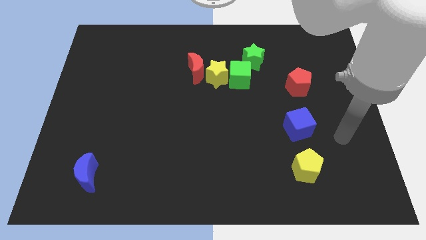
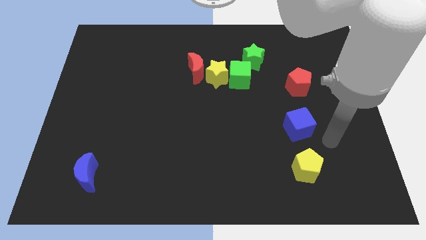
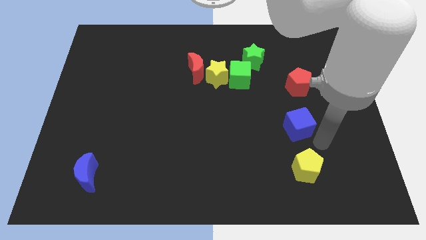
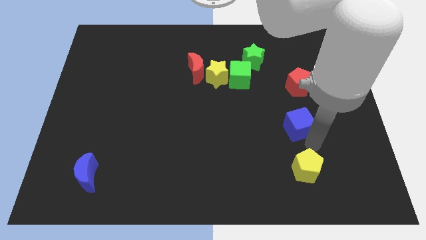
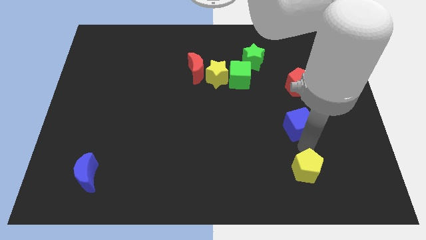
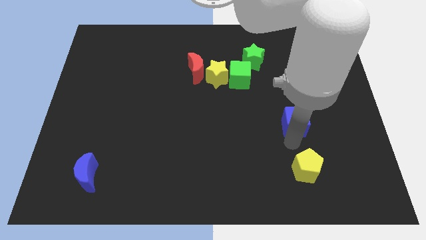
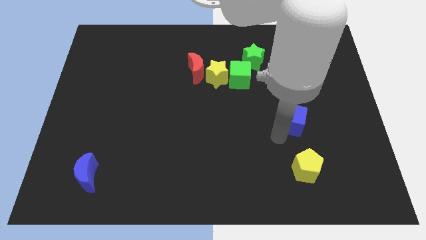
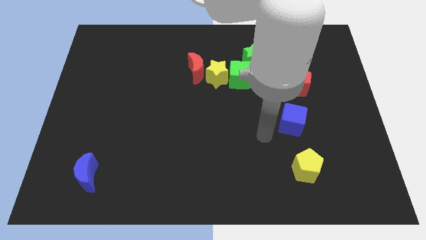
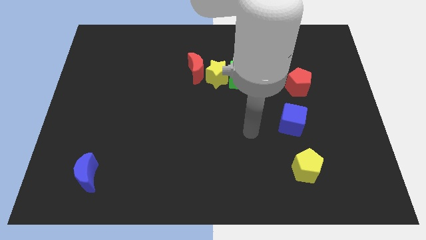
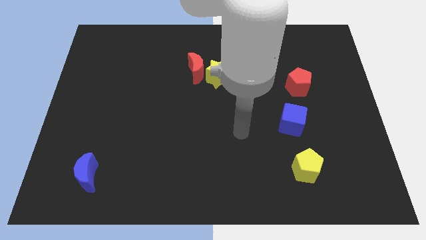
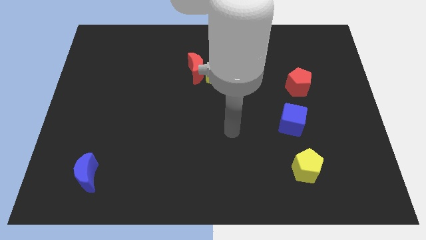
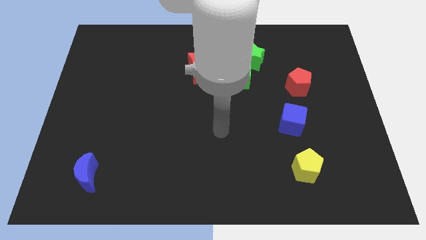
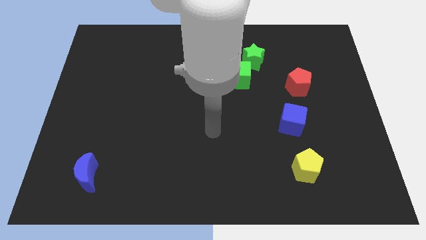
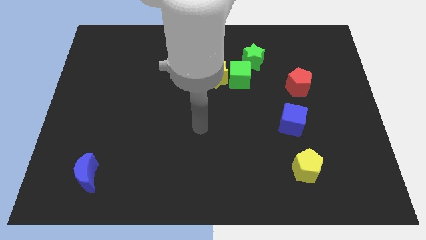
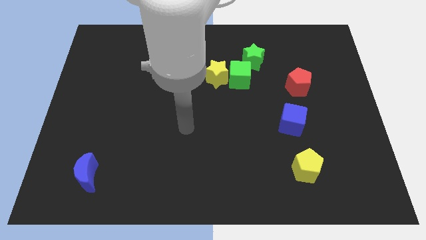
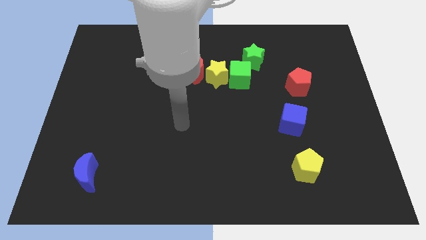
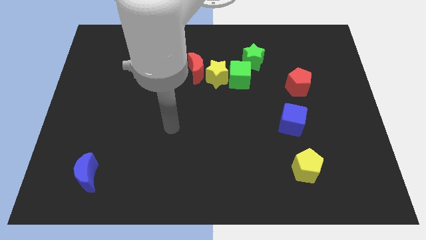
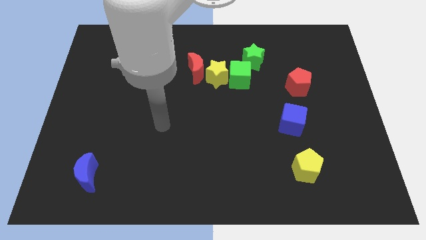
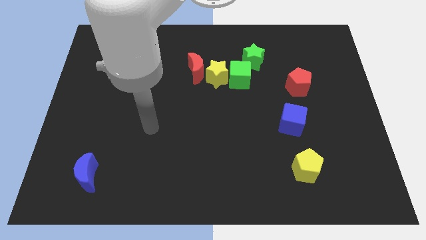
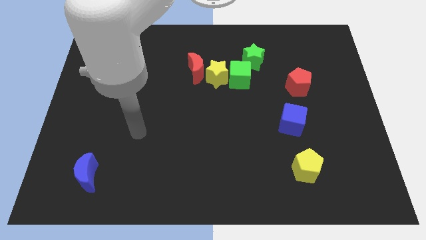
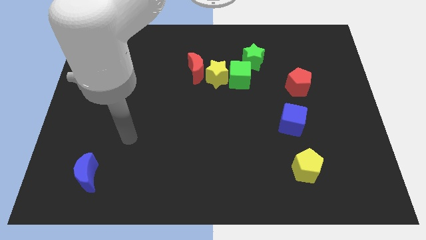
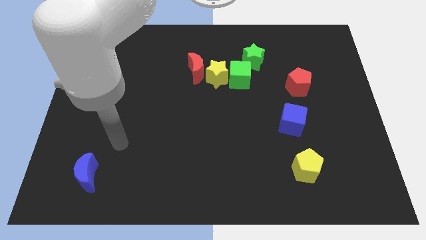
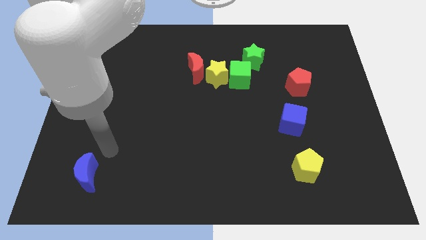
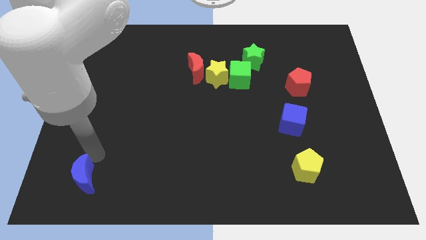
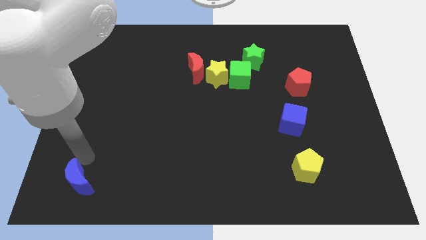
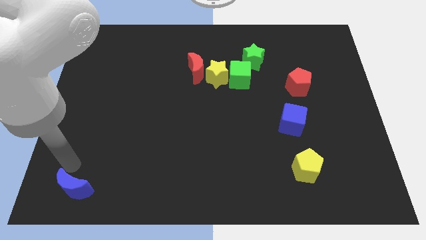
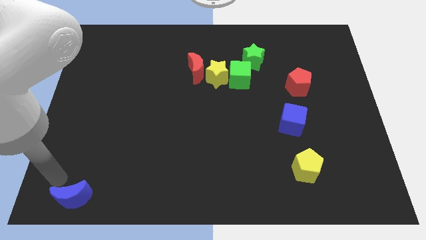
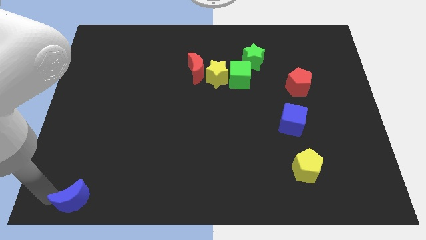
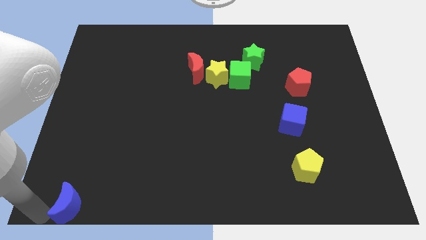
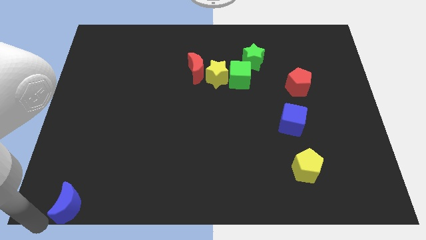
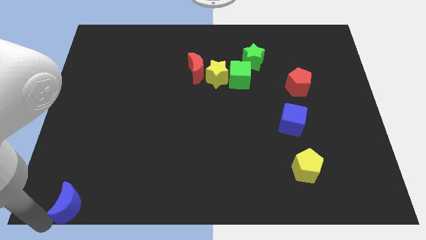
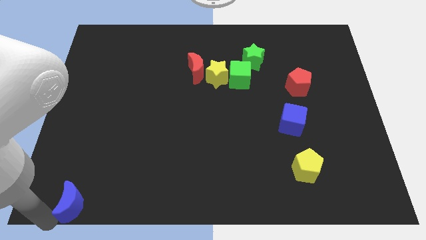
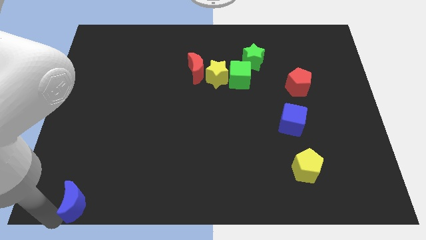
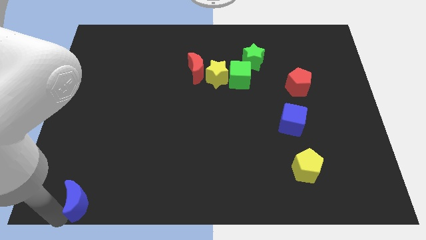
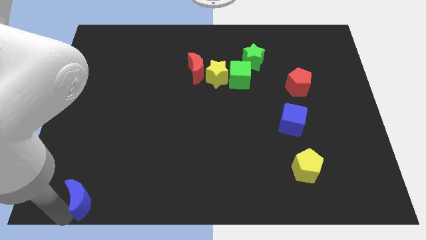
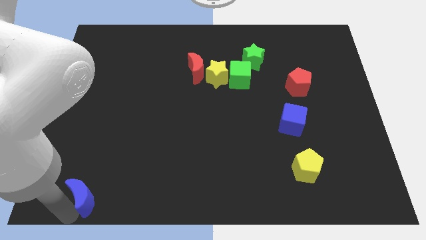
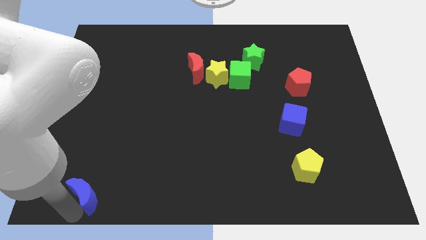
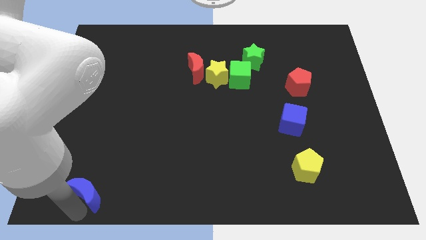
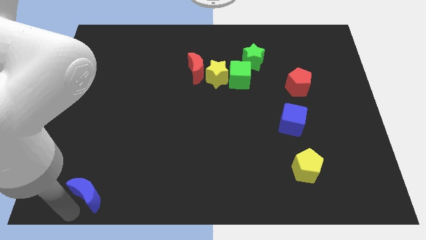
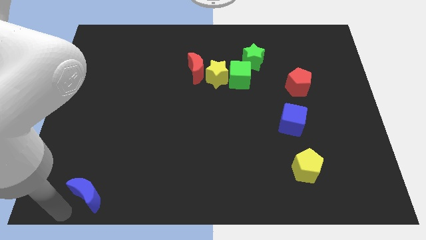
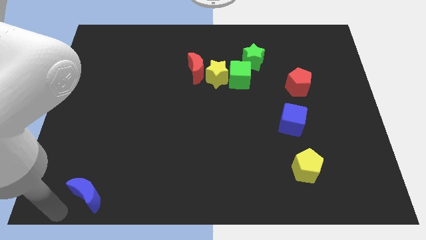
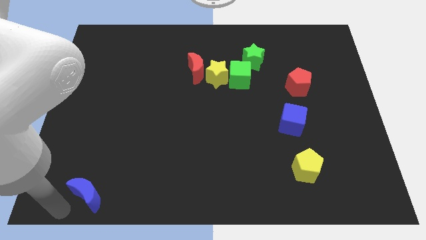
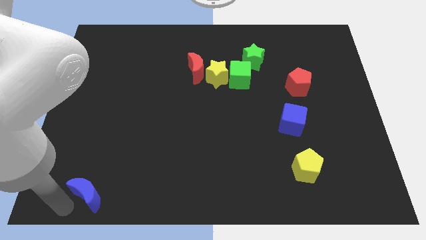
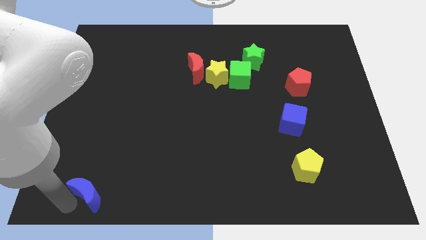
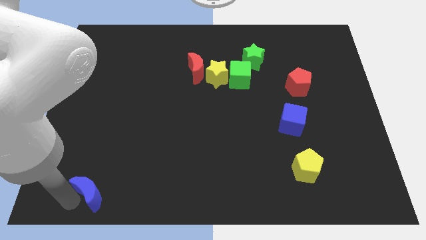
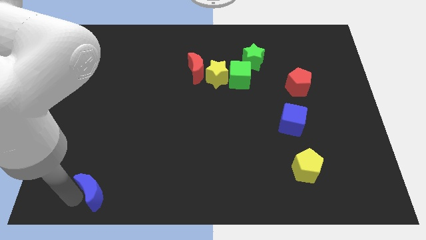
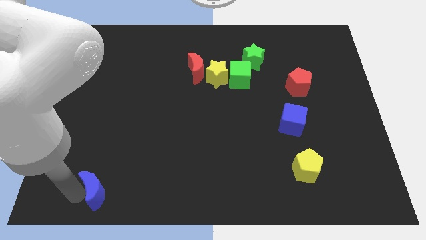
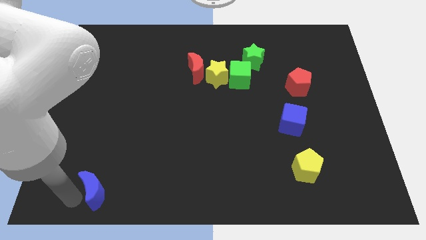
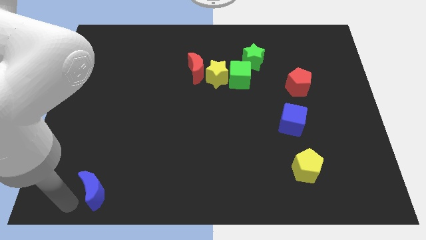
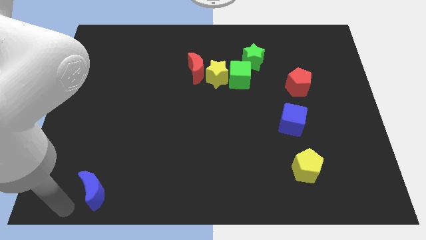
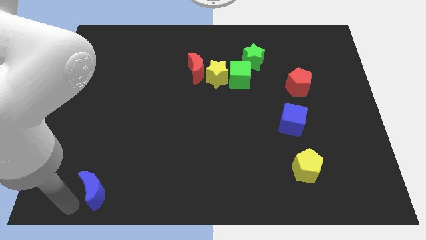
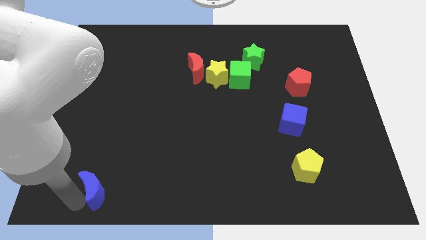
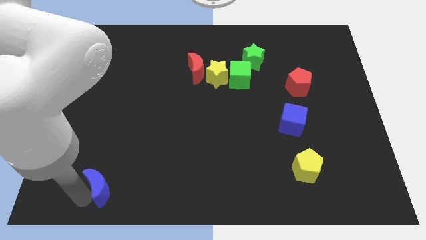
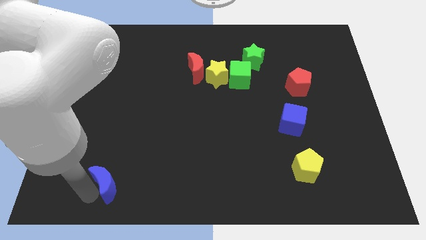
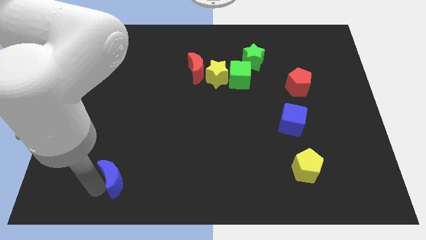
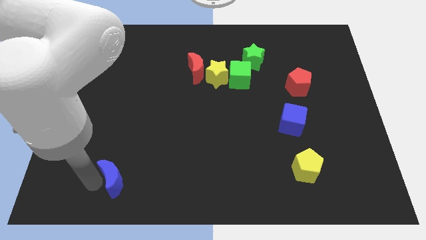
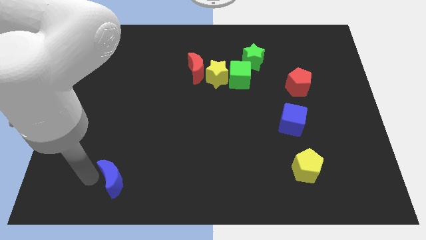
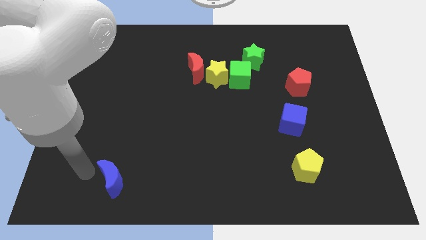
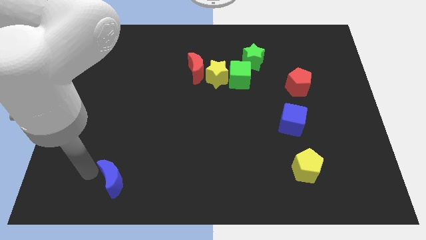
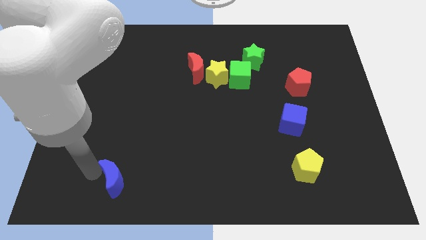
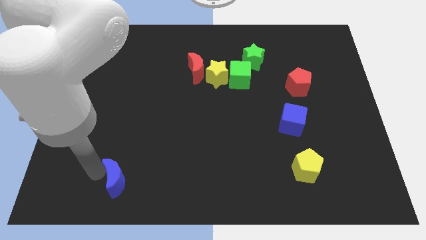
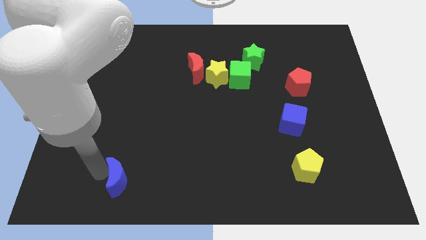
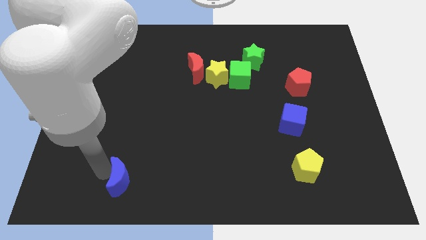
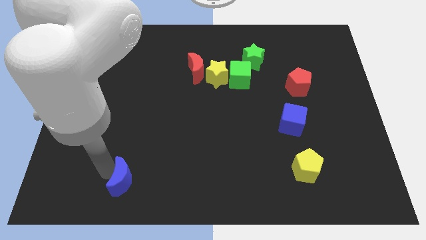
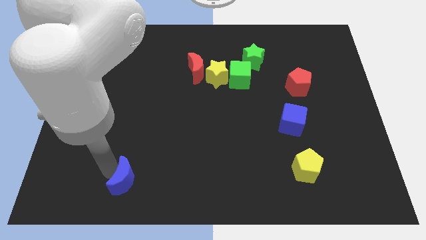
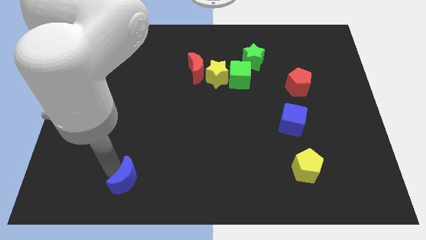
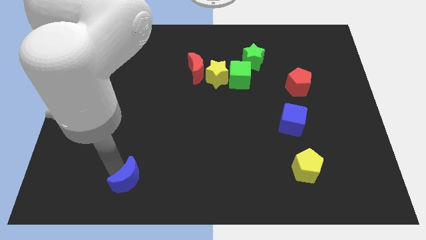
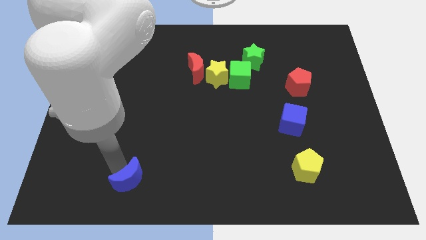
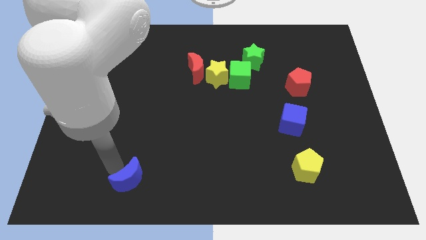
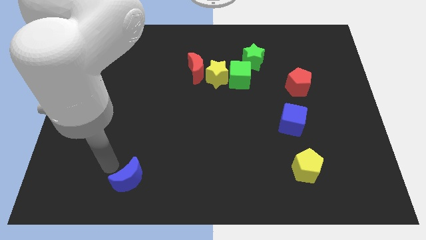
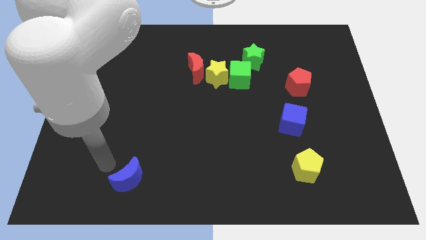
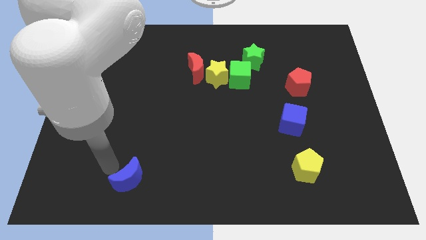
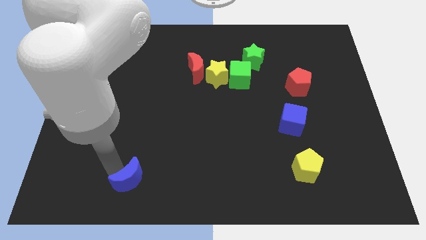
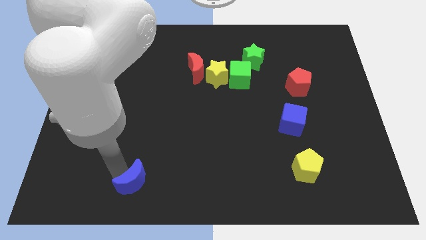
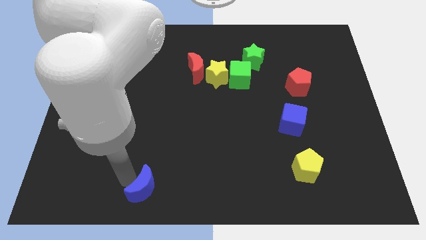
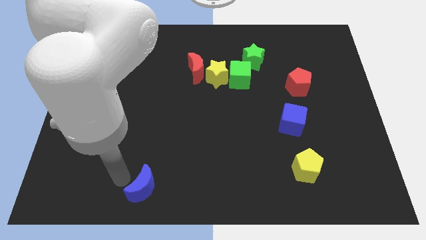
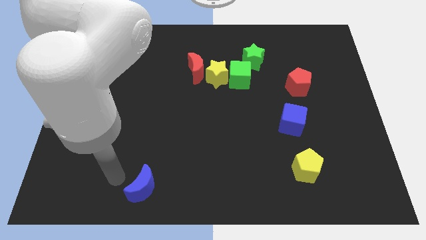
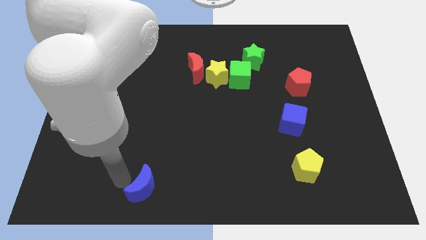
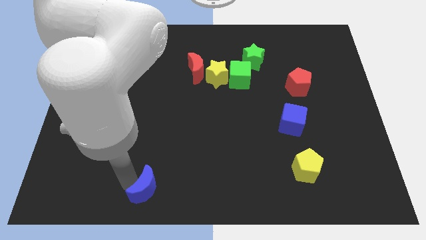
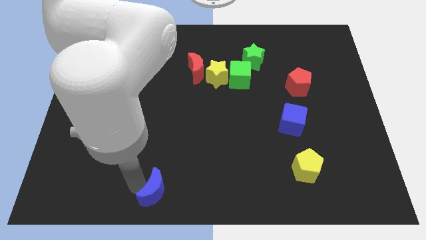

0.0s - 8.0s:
slide the blue moon to the bottom side

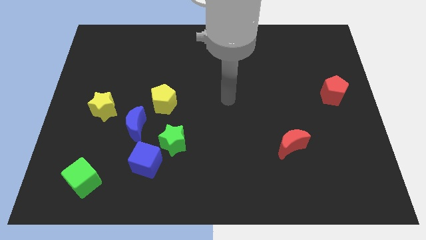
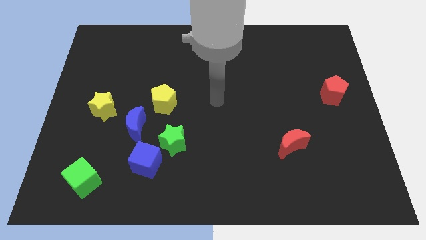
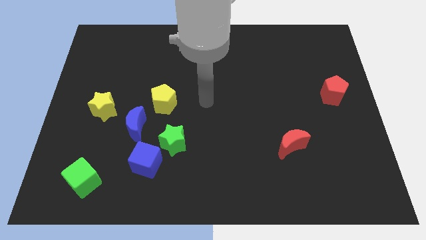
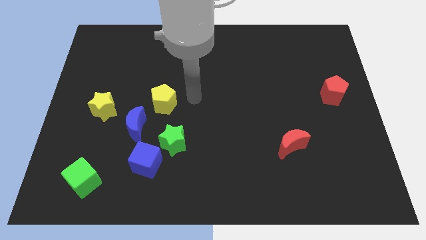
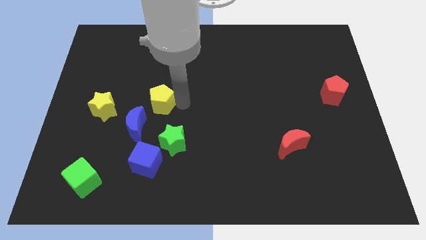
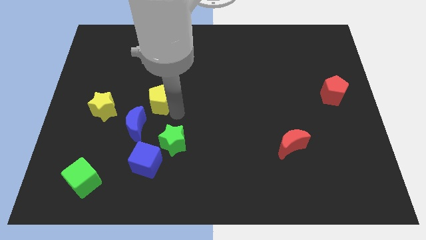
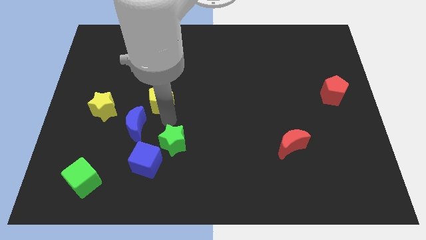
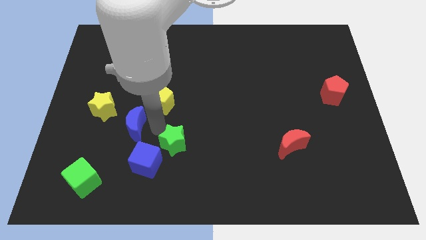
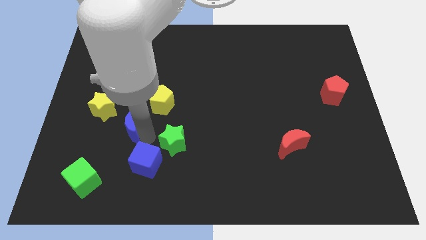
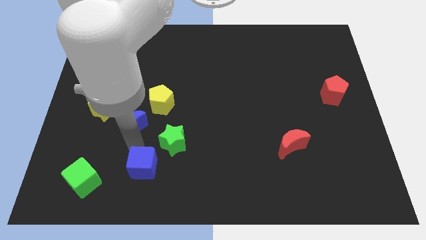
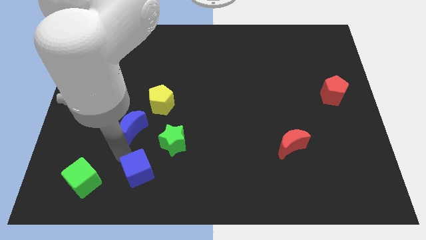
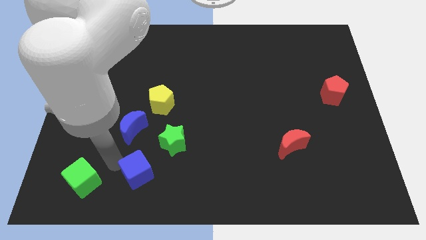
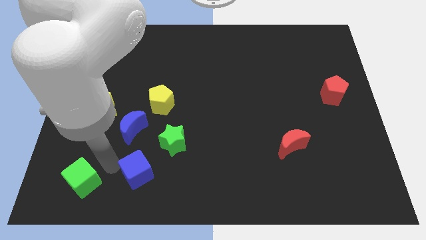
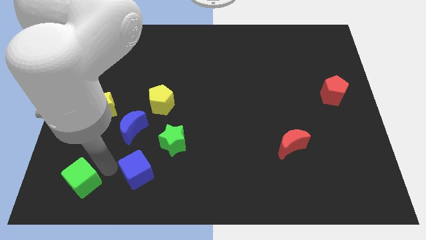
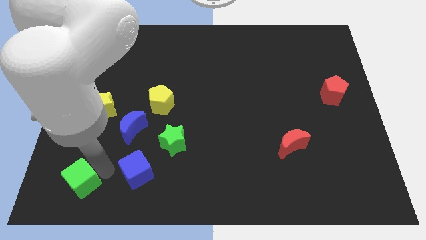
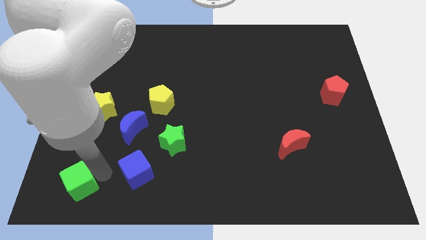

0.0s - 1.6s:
move the green cube to the bottom left corner
